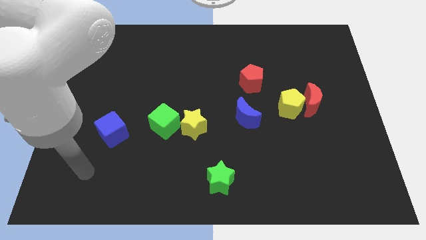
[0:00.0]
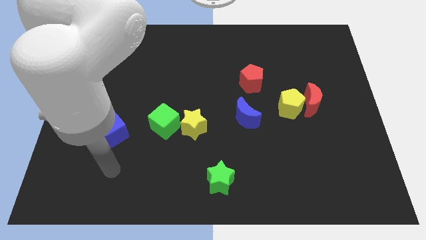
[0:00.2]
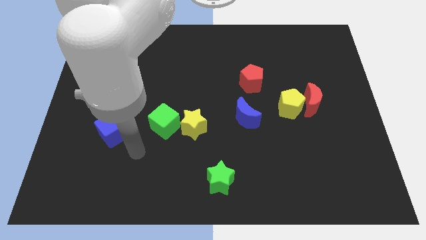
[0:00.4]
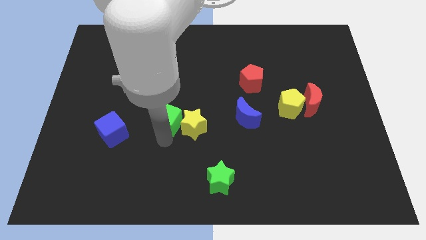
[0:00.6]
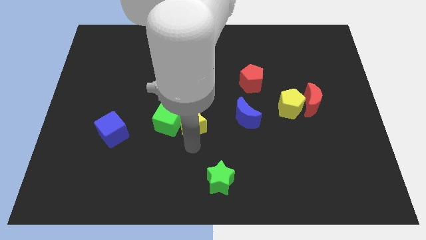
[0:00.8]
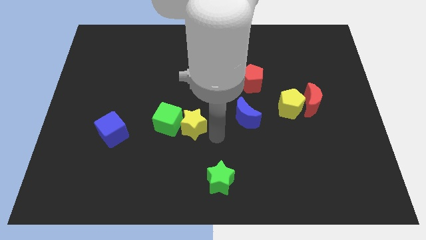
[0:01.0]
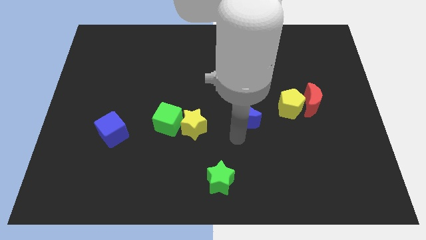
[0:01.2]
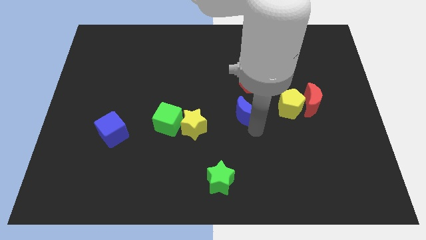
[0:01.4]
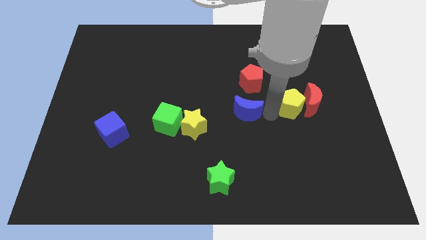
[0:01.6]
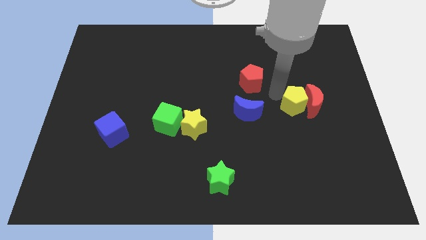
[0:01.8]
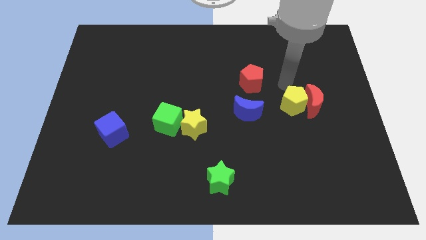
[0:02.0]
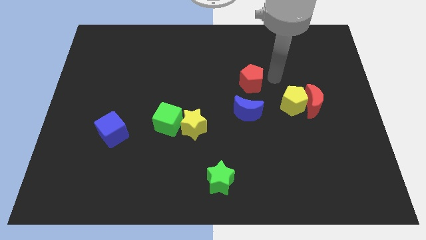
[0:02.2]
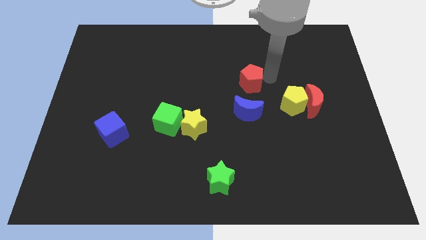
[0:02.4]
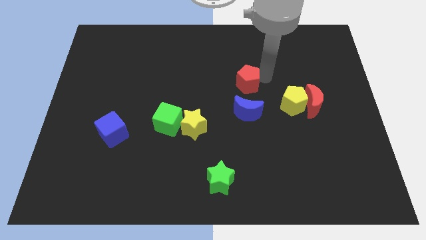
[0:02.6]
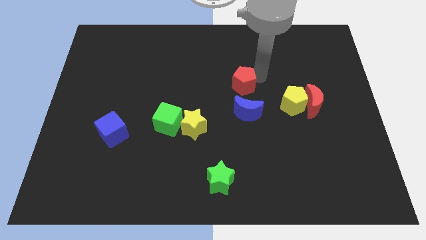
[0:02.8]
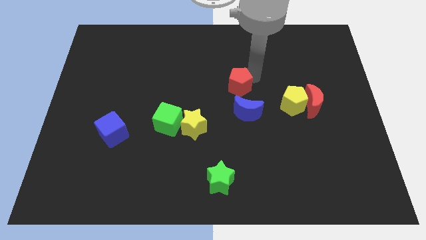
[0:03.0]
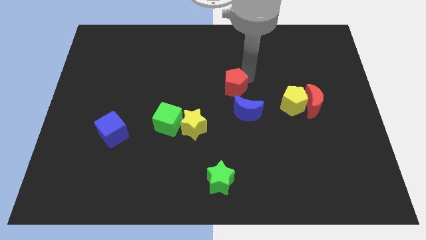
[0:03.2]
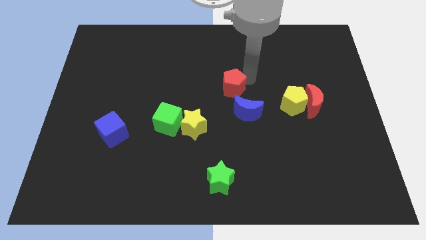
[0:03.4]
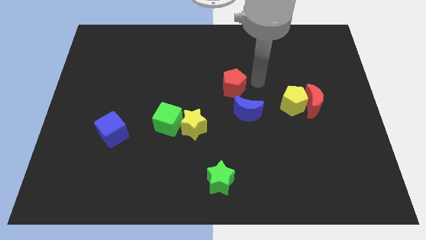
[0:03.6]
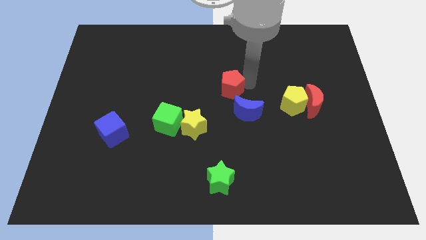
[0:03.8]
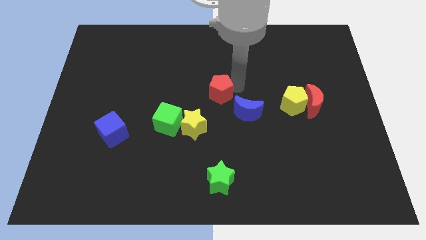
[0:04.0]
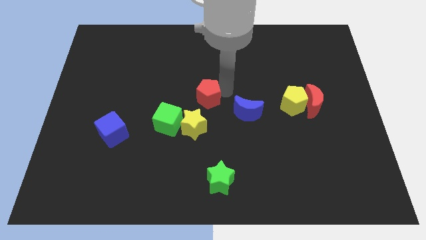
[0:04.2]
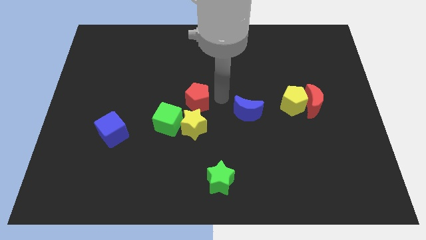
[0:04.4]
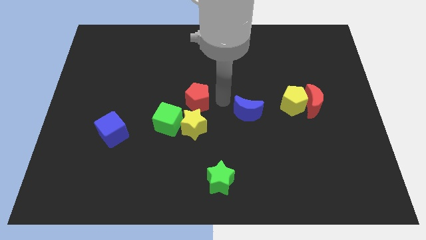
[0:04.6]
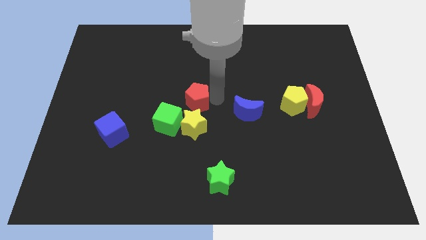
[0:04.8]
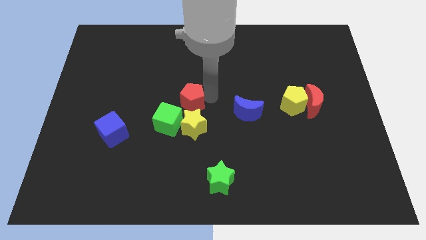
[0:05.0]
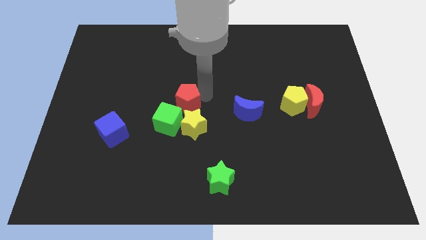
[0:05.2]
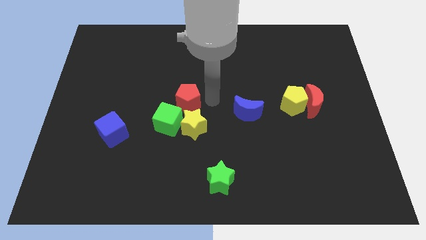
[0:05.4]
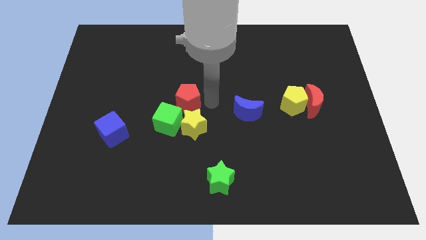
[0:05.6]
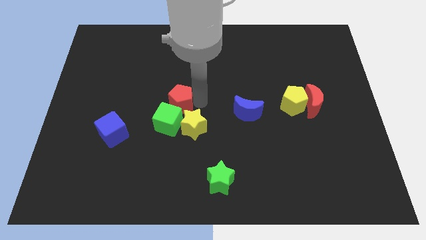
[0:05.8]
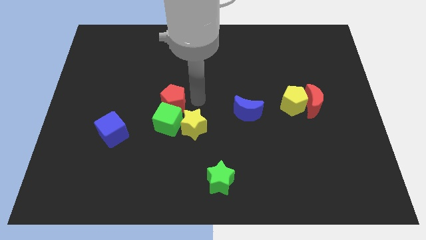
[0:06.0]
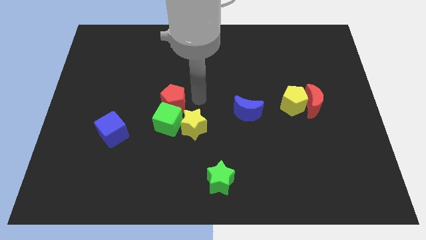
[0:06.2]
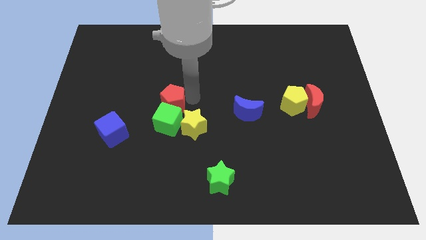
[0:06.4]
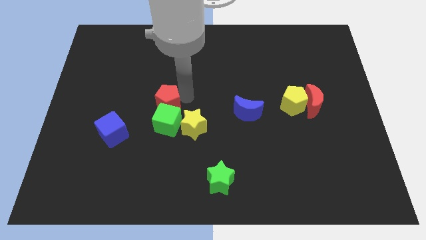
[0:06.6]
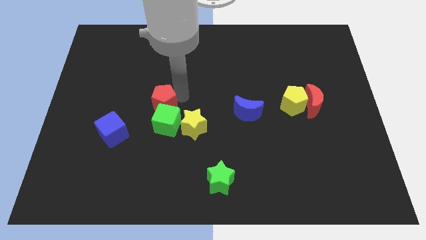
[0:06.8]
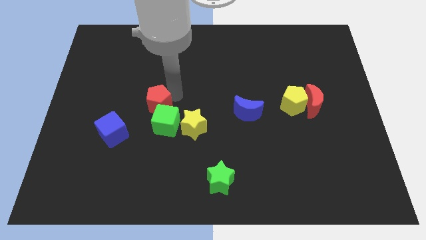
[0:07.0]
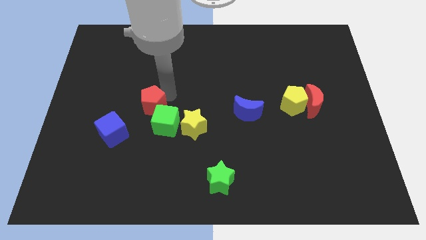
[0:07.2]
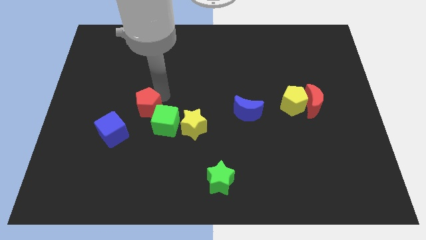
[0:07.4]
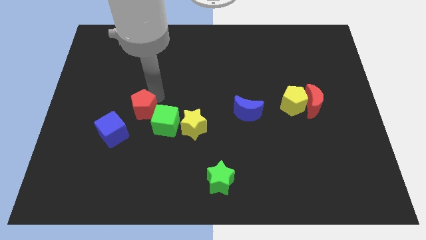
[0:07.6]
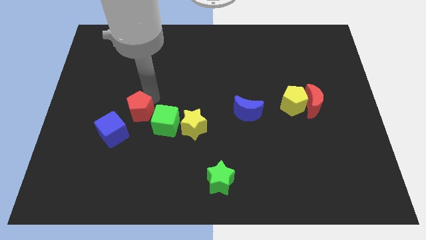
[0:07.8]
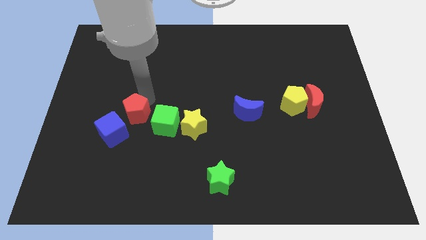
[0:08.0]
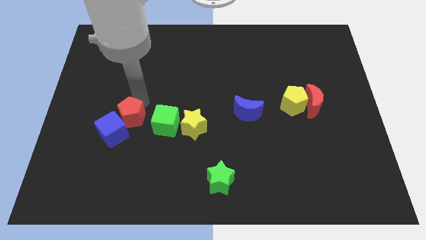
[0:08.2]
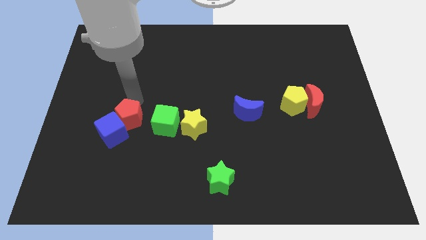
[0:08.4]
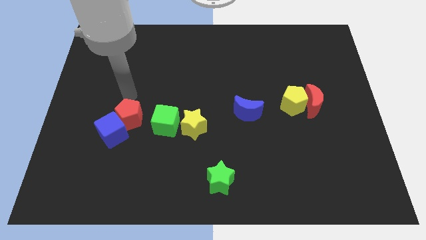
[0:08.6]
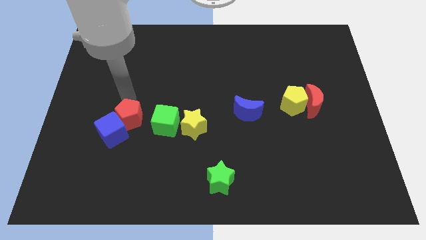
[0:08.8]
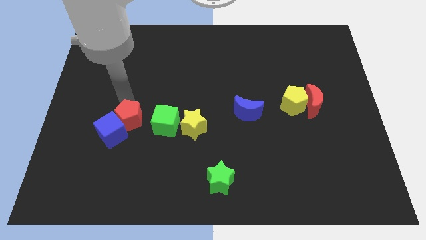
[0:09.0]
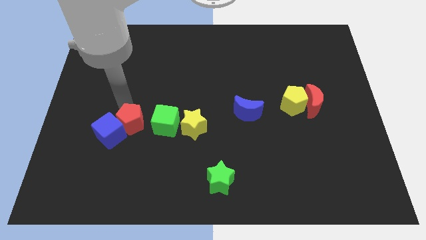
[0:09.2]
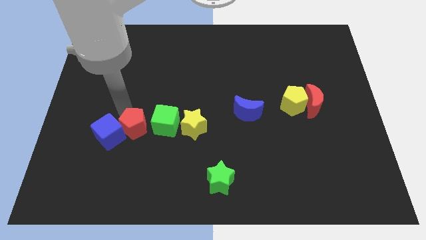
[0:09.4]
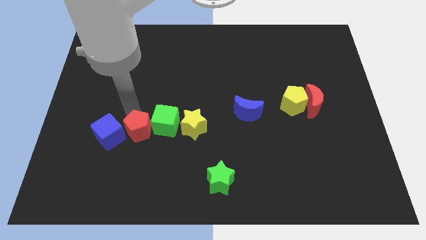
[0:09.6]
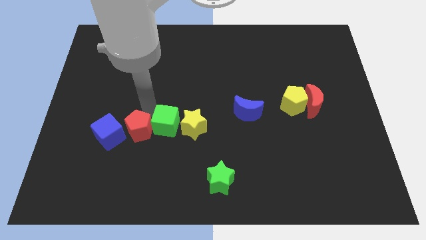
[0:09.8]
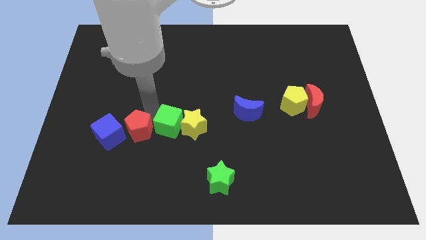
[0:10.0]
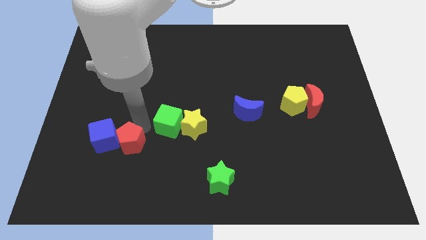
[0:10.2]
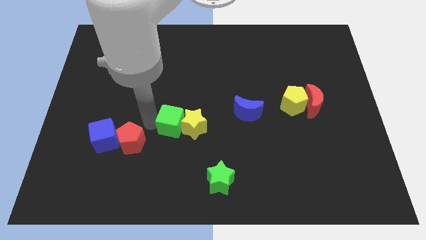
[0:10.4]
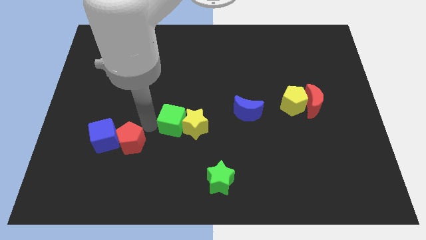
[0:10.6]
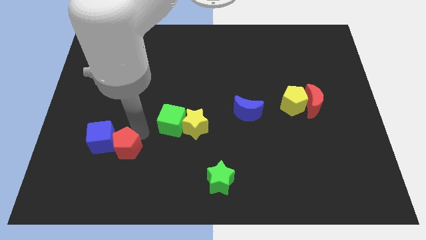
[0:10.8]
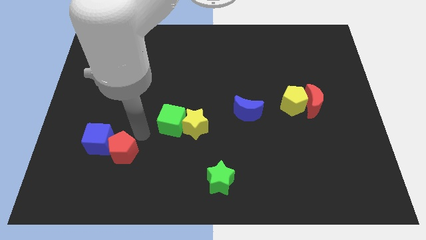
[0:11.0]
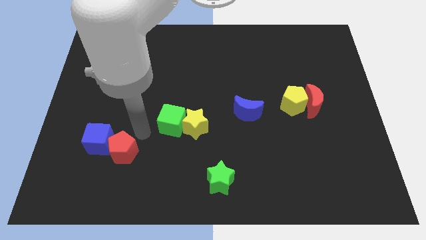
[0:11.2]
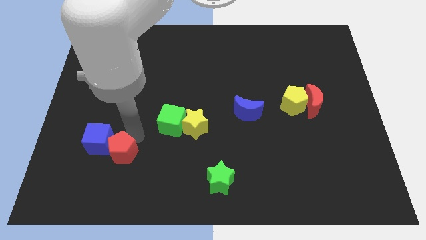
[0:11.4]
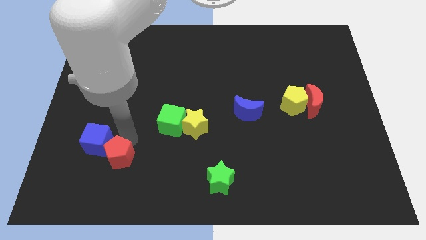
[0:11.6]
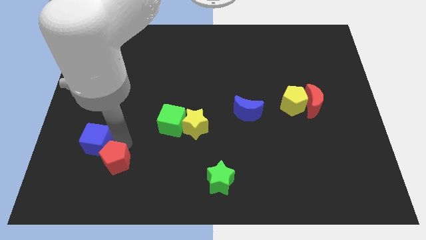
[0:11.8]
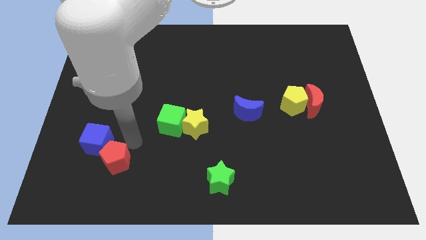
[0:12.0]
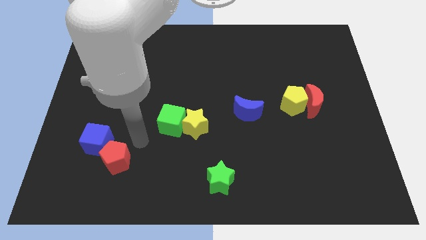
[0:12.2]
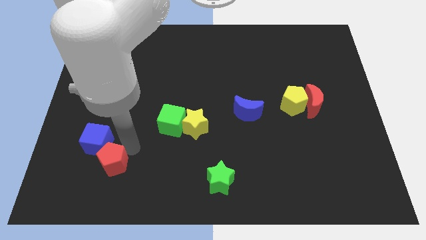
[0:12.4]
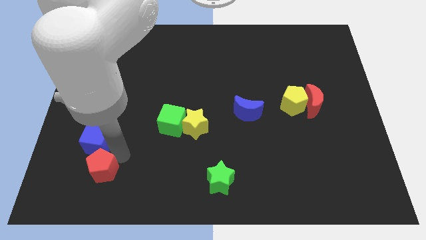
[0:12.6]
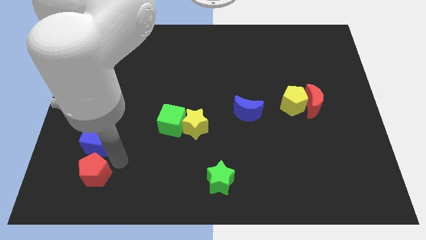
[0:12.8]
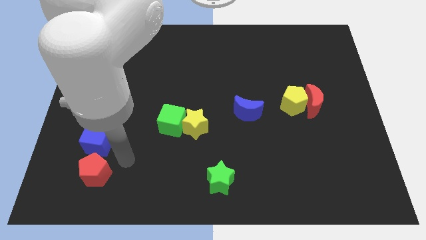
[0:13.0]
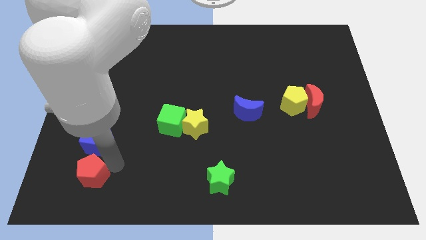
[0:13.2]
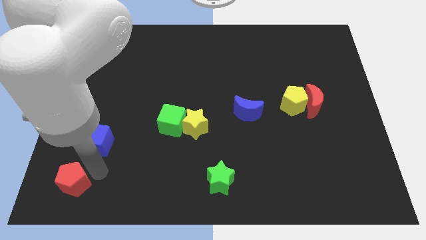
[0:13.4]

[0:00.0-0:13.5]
put the red pentagon to the lower left corner
